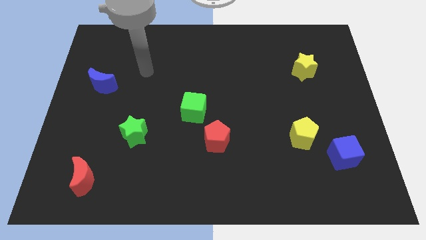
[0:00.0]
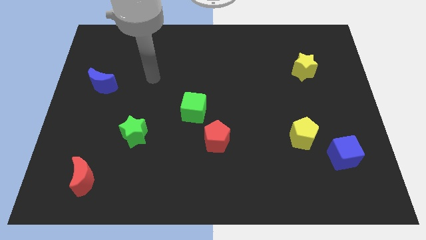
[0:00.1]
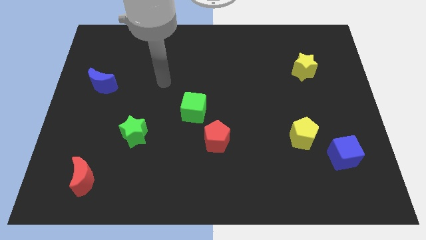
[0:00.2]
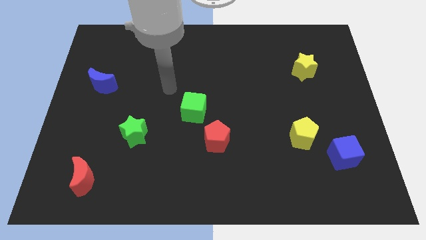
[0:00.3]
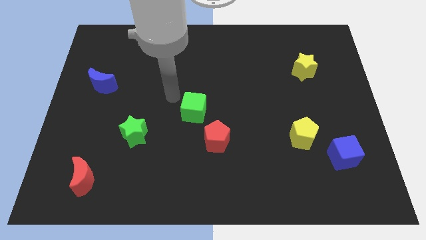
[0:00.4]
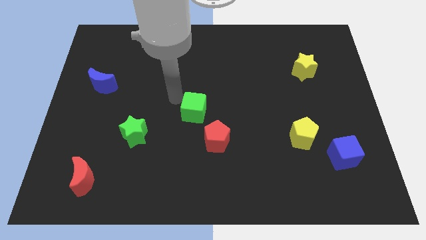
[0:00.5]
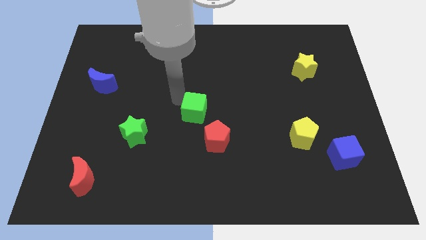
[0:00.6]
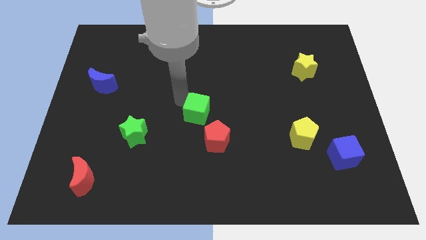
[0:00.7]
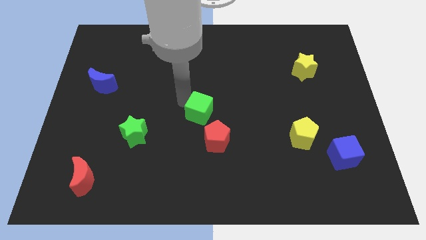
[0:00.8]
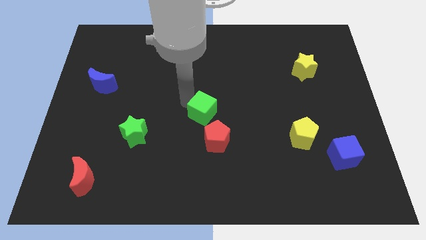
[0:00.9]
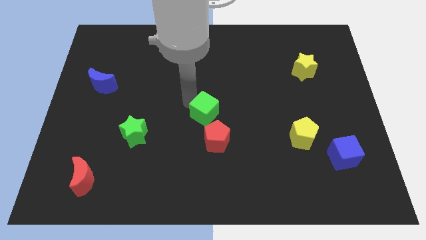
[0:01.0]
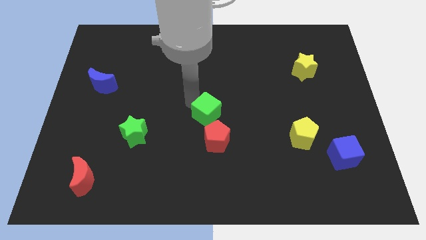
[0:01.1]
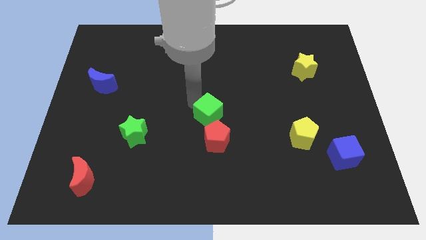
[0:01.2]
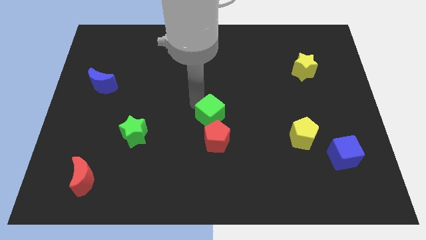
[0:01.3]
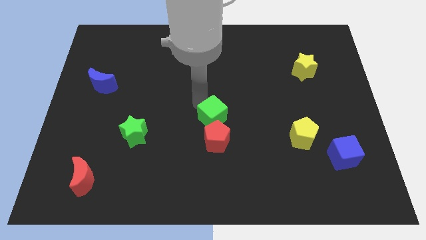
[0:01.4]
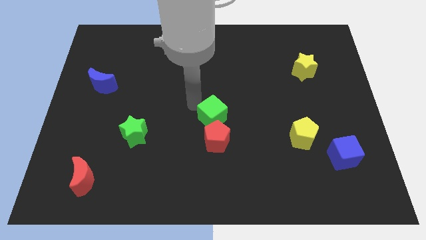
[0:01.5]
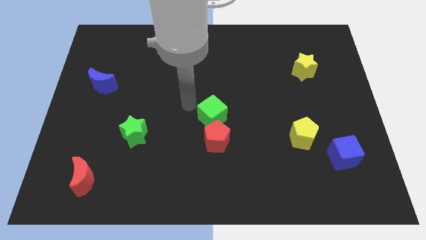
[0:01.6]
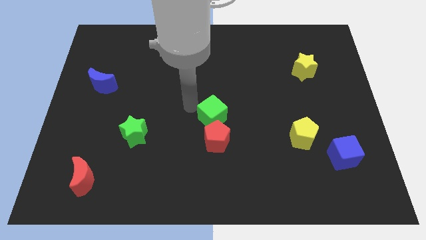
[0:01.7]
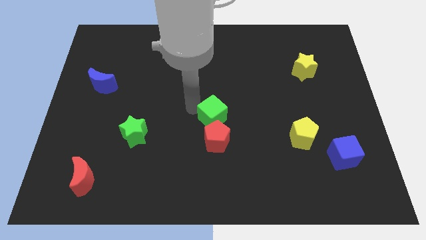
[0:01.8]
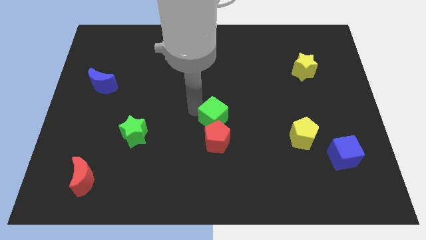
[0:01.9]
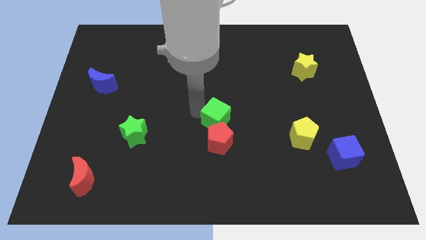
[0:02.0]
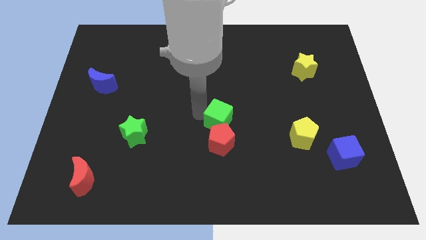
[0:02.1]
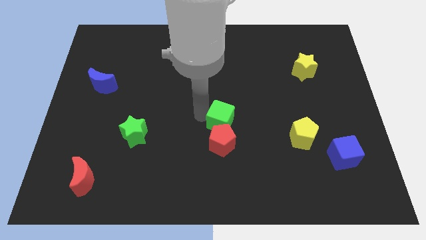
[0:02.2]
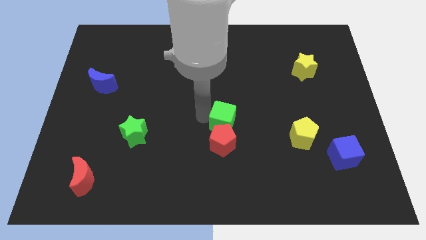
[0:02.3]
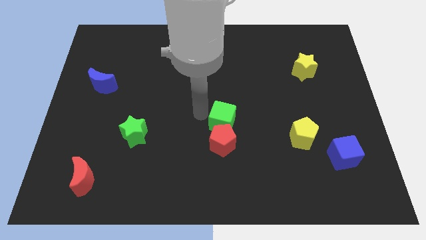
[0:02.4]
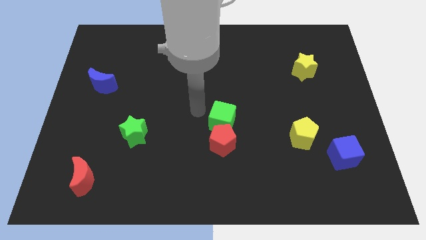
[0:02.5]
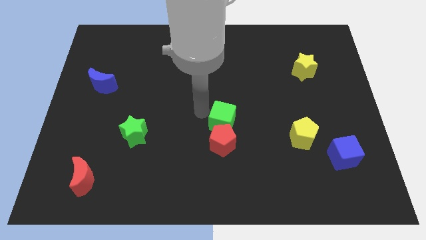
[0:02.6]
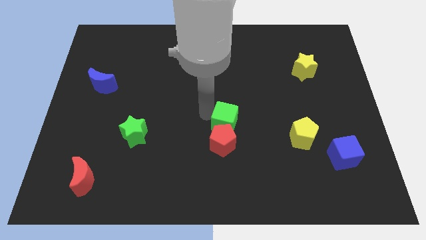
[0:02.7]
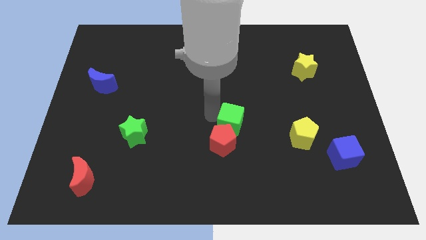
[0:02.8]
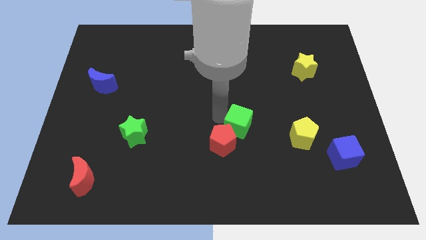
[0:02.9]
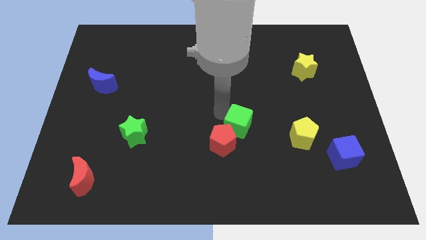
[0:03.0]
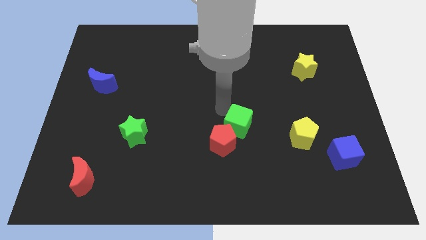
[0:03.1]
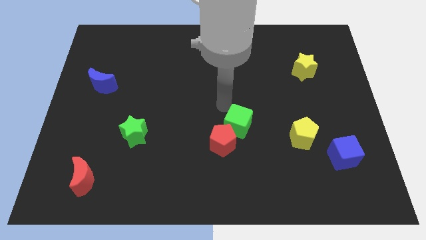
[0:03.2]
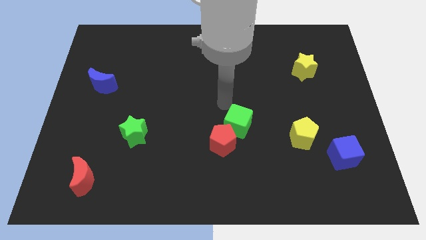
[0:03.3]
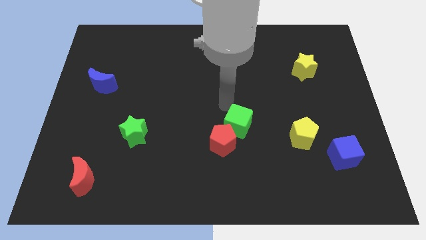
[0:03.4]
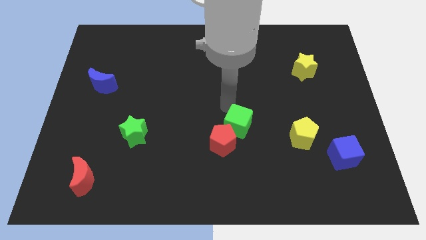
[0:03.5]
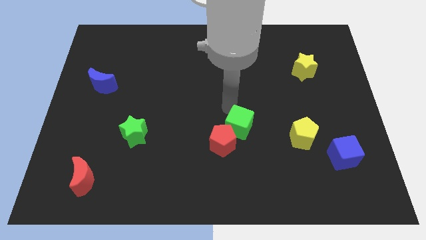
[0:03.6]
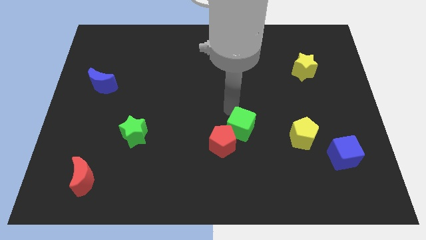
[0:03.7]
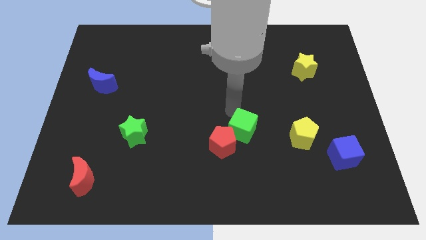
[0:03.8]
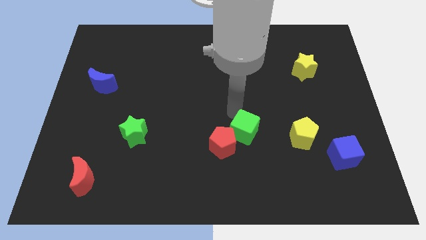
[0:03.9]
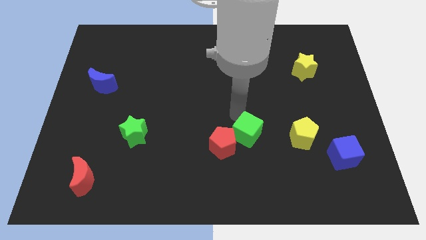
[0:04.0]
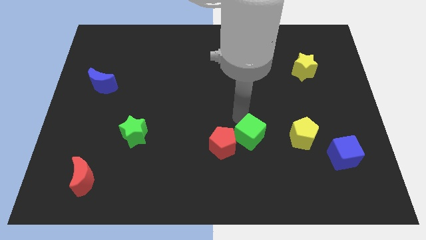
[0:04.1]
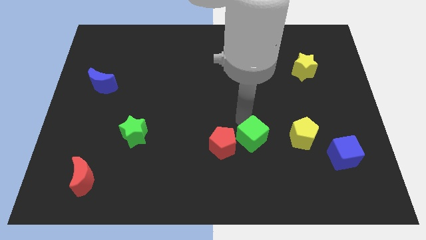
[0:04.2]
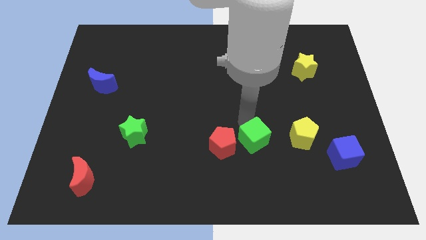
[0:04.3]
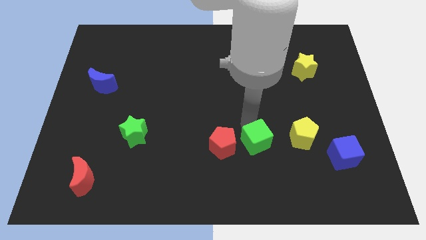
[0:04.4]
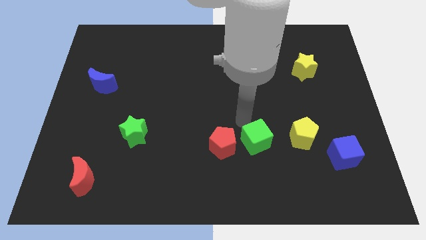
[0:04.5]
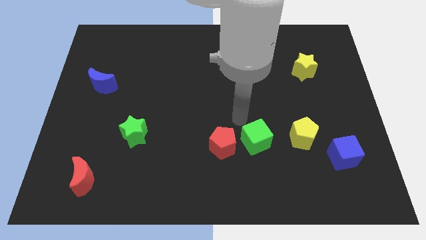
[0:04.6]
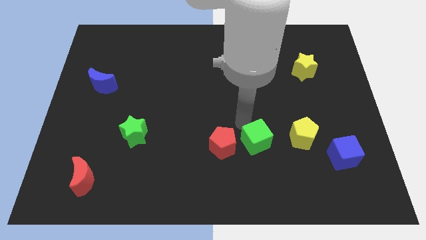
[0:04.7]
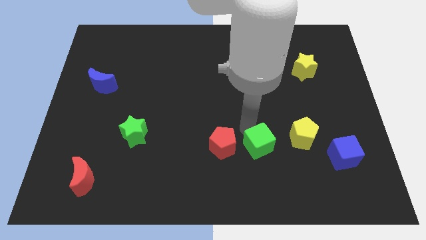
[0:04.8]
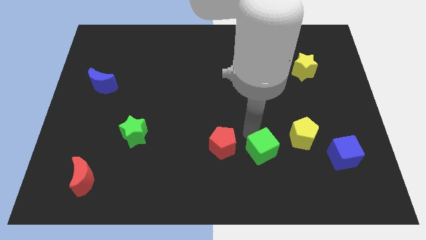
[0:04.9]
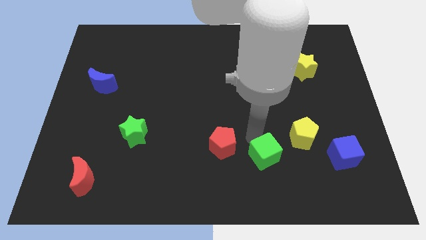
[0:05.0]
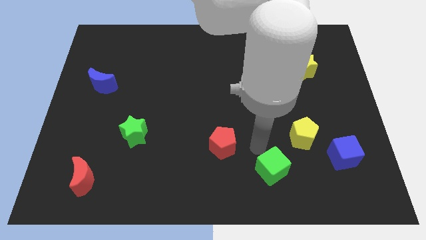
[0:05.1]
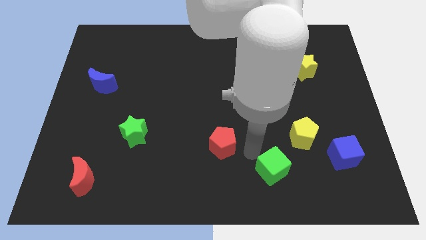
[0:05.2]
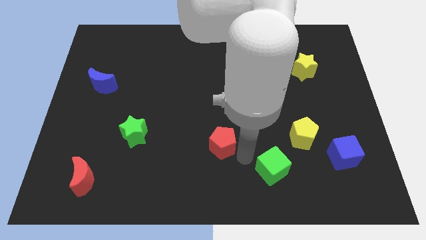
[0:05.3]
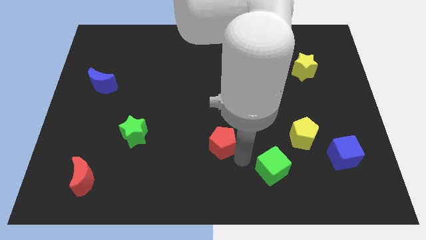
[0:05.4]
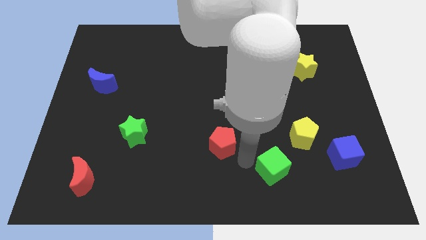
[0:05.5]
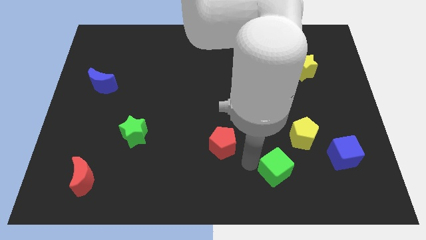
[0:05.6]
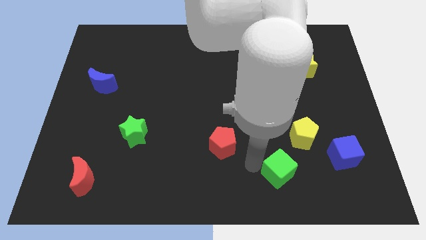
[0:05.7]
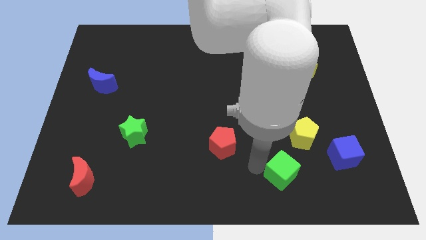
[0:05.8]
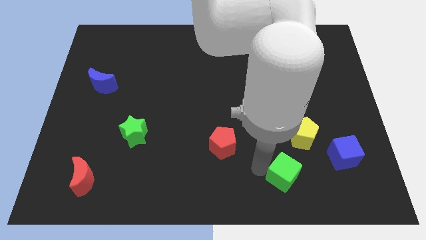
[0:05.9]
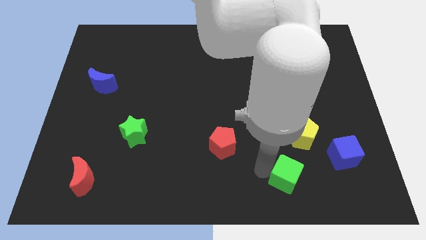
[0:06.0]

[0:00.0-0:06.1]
move the green cube to the bottom of the yellow pentagon

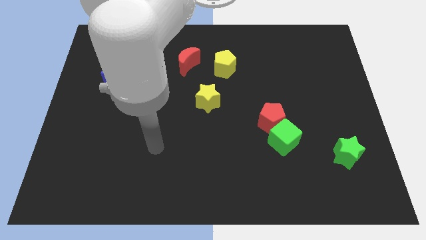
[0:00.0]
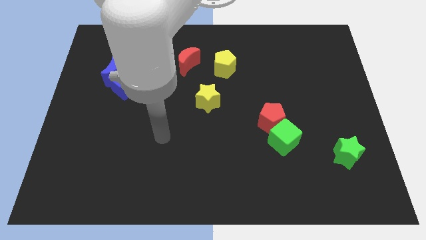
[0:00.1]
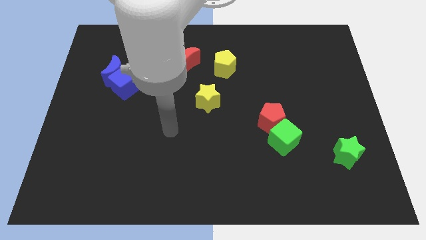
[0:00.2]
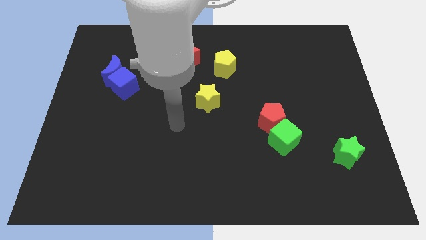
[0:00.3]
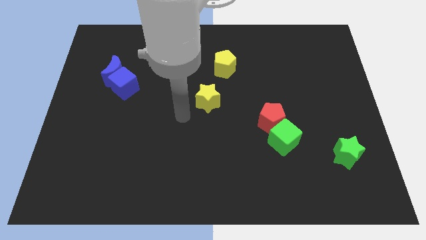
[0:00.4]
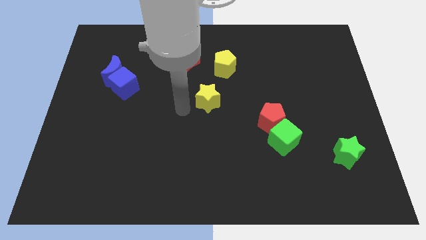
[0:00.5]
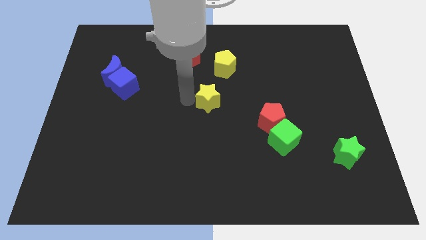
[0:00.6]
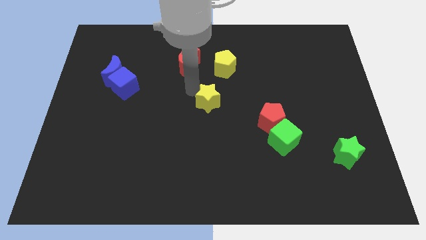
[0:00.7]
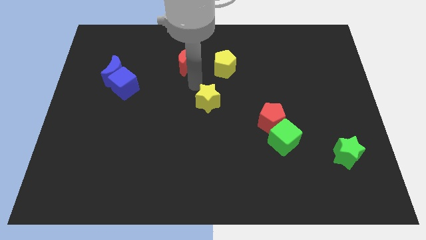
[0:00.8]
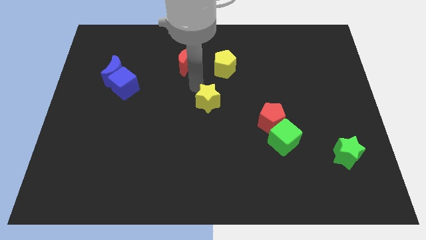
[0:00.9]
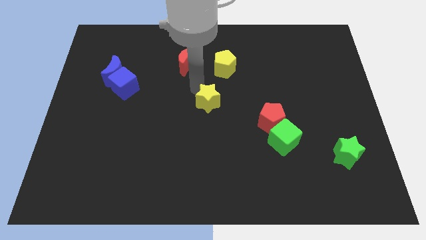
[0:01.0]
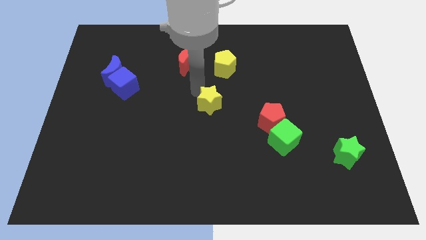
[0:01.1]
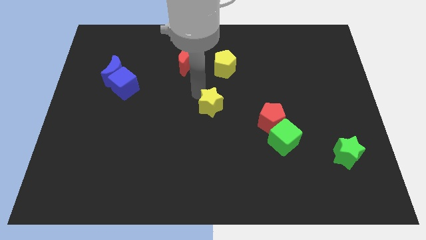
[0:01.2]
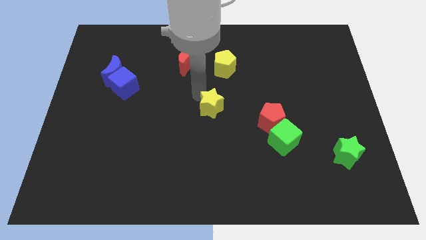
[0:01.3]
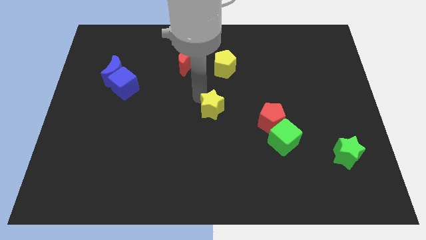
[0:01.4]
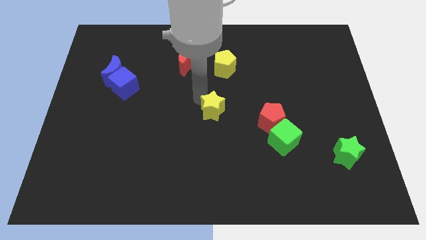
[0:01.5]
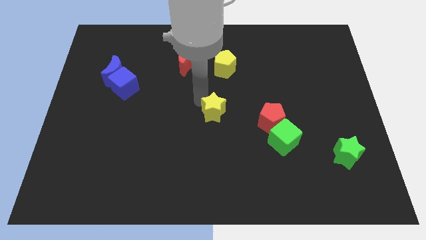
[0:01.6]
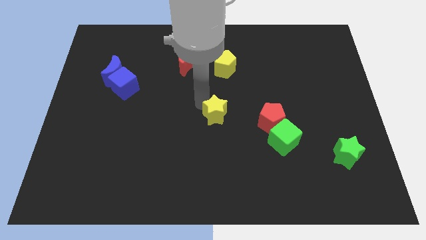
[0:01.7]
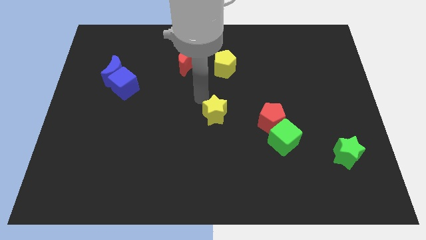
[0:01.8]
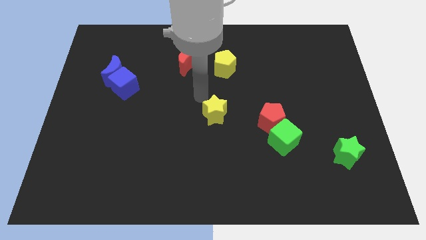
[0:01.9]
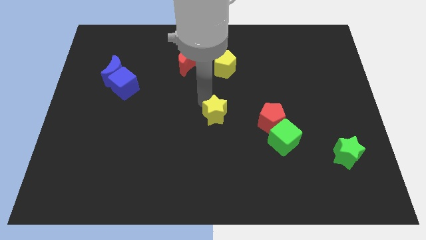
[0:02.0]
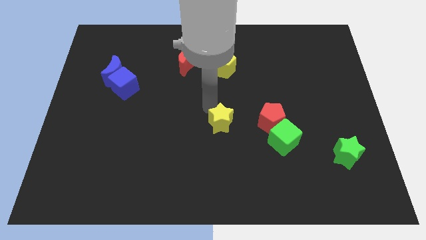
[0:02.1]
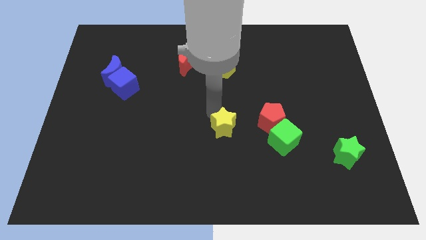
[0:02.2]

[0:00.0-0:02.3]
push the yellow star to the left of the green cube
